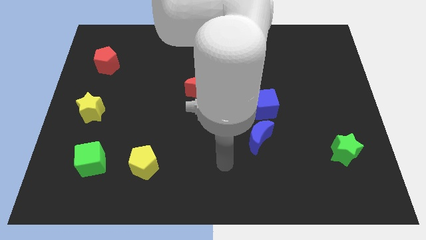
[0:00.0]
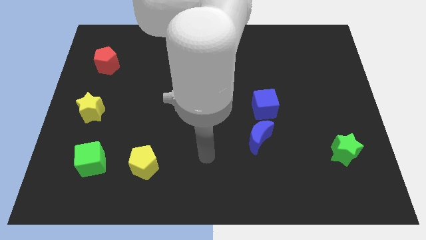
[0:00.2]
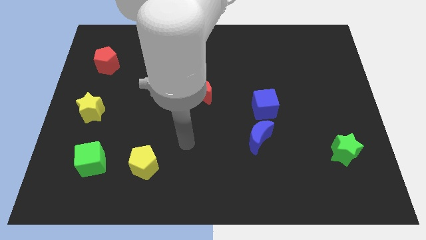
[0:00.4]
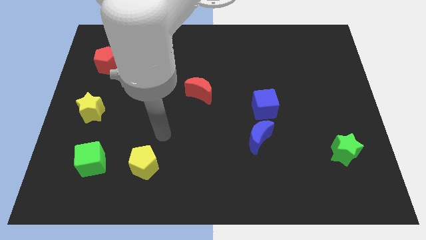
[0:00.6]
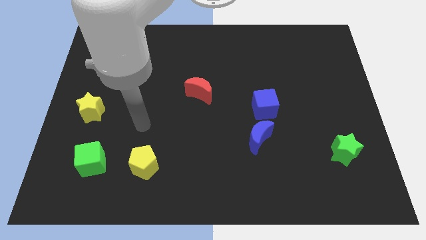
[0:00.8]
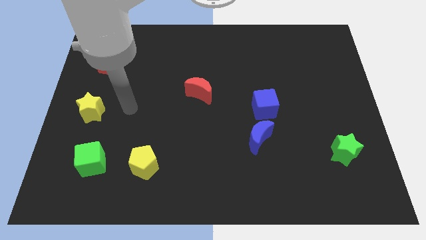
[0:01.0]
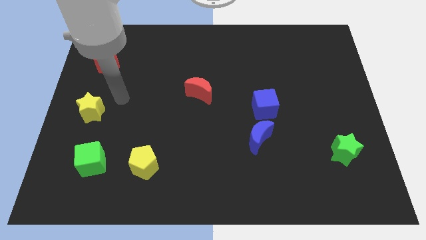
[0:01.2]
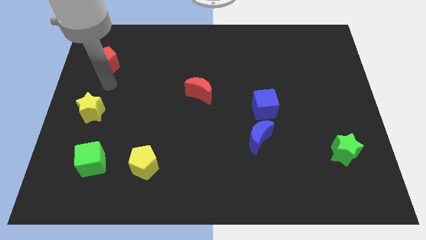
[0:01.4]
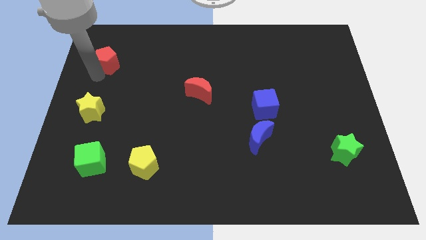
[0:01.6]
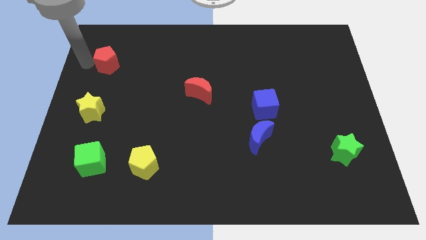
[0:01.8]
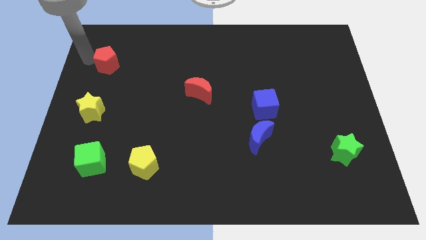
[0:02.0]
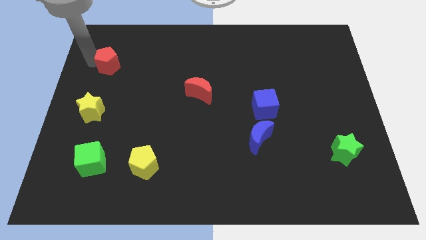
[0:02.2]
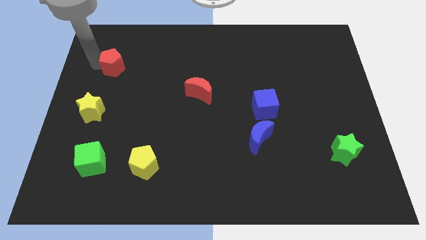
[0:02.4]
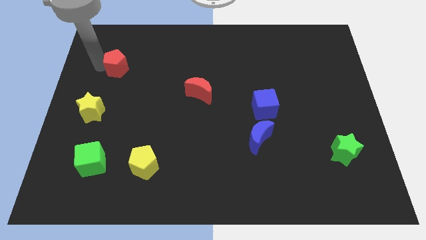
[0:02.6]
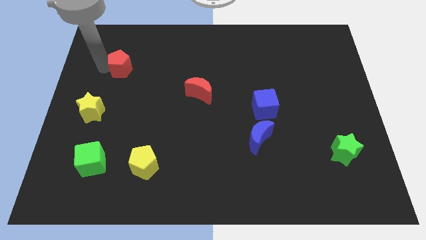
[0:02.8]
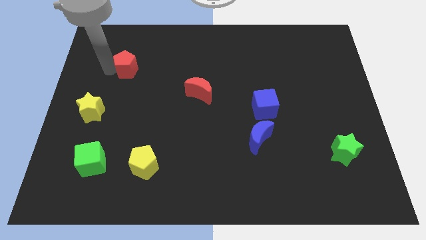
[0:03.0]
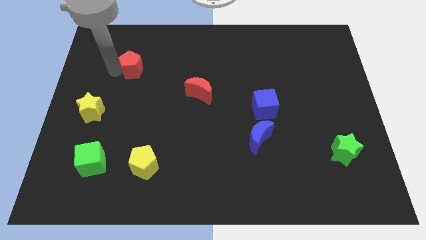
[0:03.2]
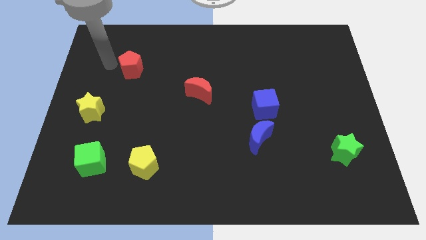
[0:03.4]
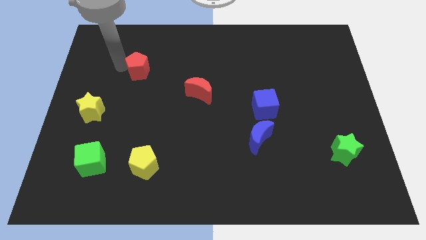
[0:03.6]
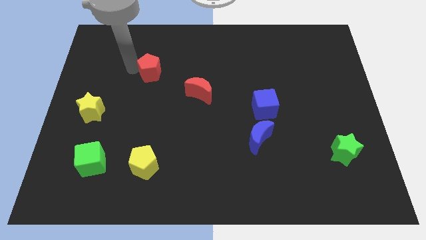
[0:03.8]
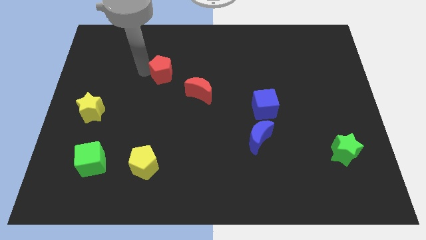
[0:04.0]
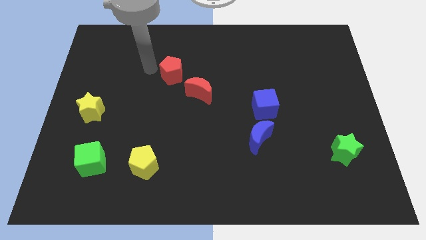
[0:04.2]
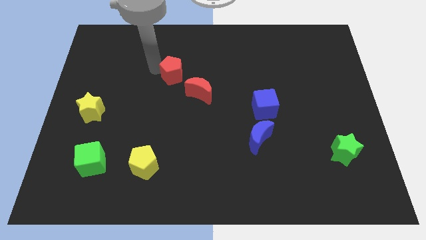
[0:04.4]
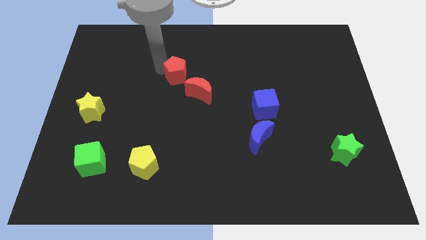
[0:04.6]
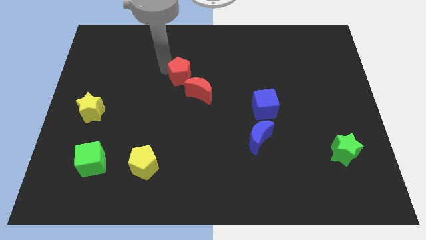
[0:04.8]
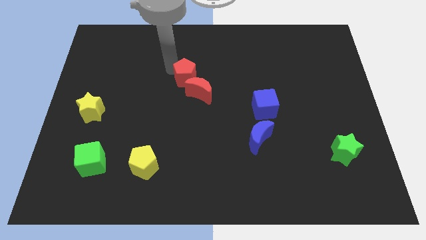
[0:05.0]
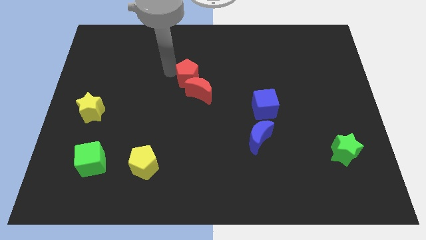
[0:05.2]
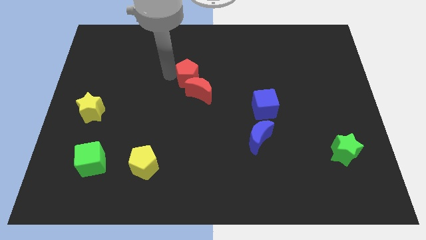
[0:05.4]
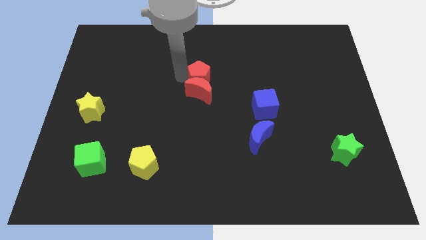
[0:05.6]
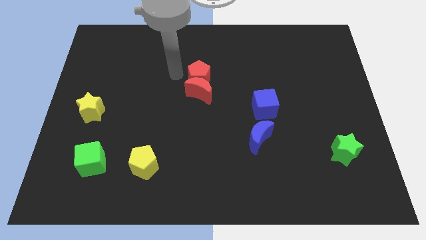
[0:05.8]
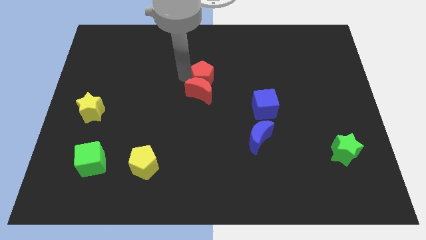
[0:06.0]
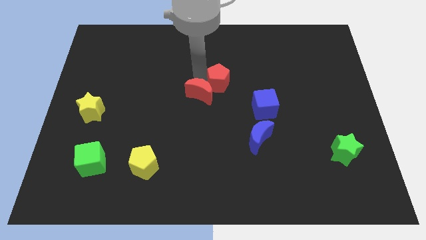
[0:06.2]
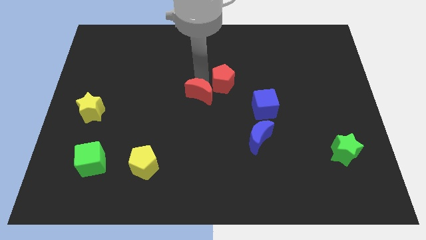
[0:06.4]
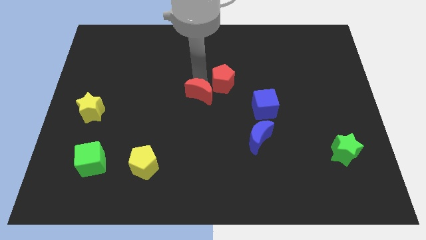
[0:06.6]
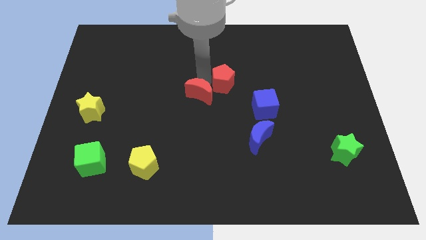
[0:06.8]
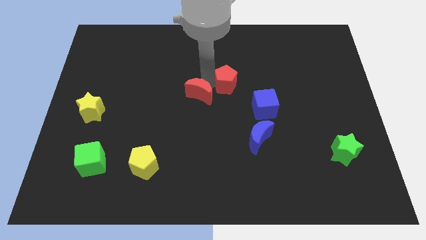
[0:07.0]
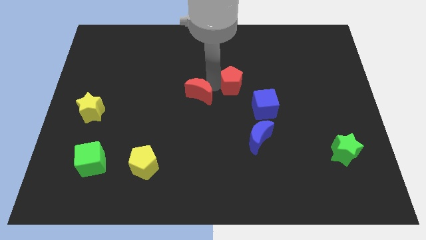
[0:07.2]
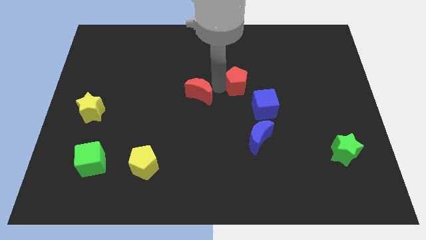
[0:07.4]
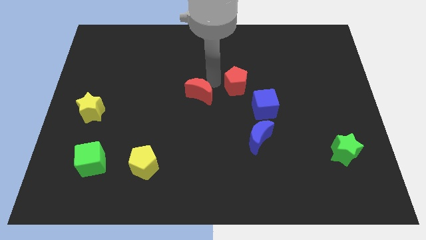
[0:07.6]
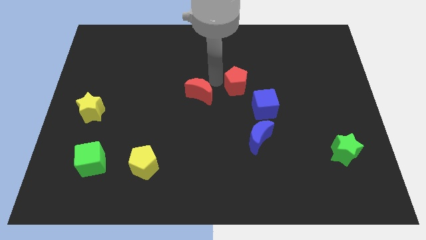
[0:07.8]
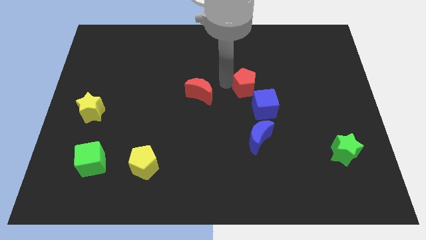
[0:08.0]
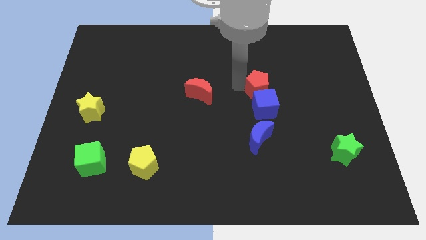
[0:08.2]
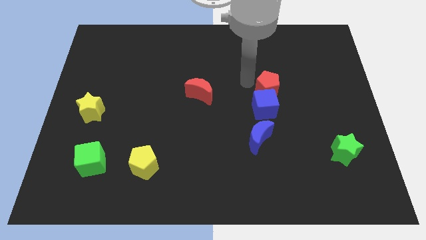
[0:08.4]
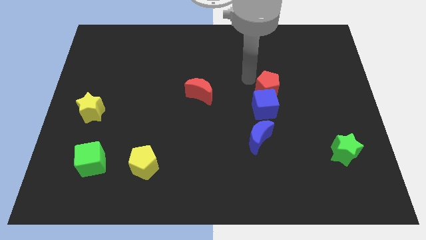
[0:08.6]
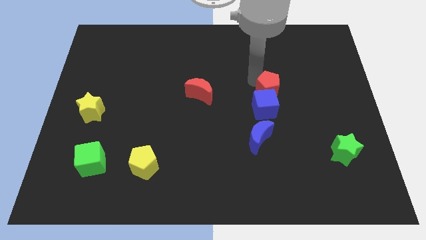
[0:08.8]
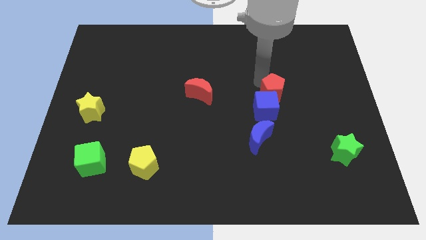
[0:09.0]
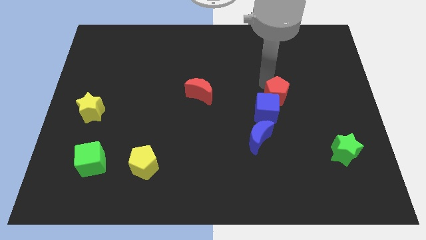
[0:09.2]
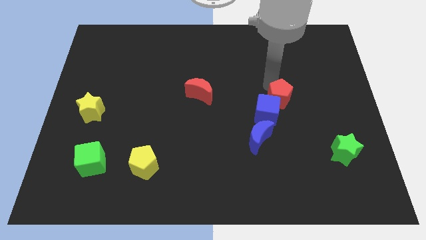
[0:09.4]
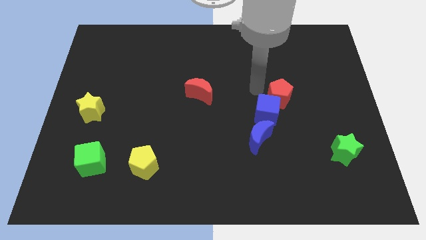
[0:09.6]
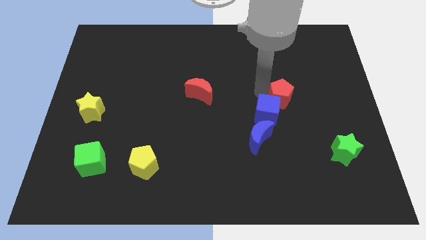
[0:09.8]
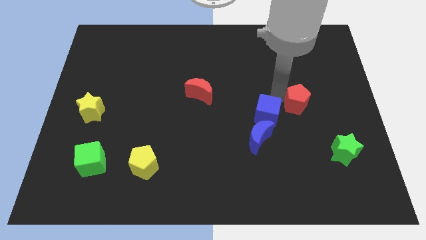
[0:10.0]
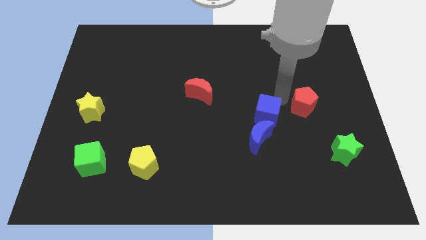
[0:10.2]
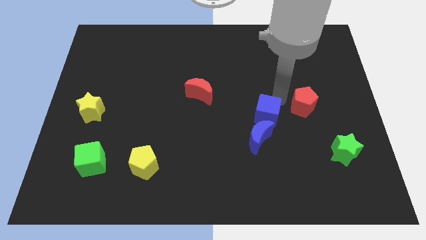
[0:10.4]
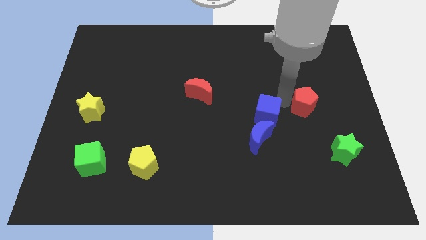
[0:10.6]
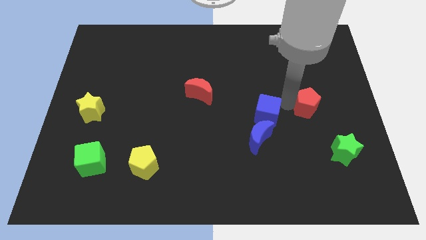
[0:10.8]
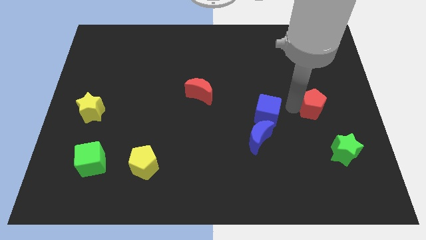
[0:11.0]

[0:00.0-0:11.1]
push the red pentagon above the green star

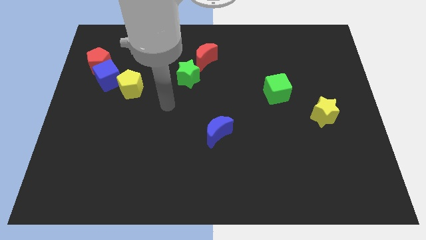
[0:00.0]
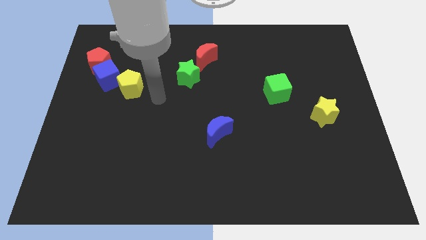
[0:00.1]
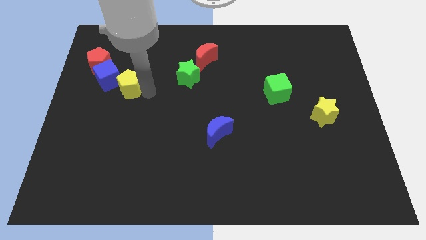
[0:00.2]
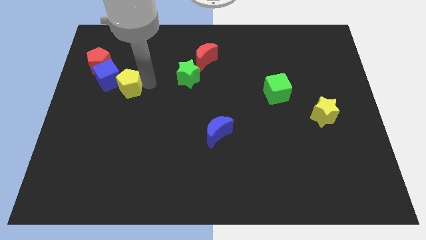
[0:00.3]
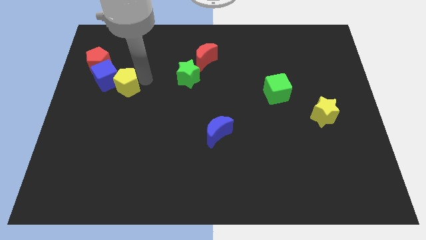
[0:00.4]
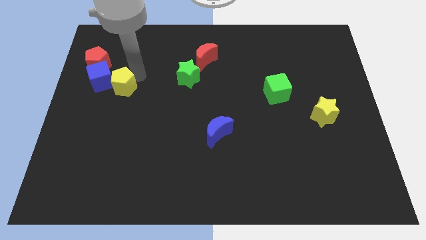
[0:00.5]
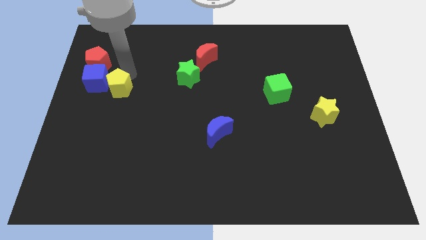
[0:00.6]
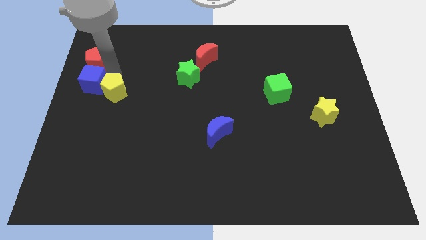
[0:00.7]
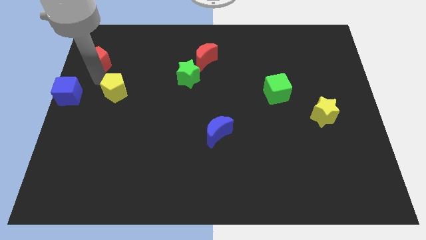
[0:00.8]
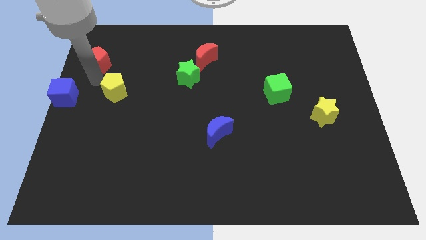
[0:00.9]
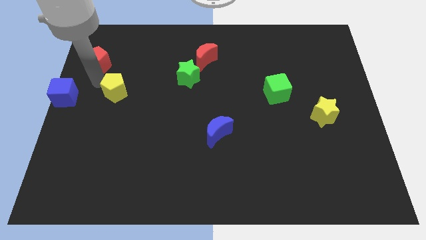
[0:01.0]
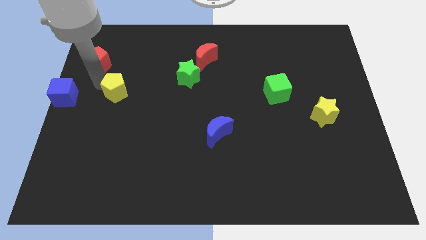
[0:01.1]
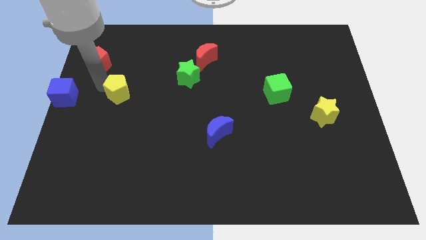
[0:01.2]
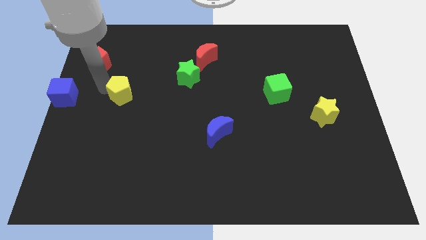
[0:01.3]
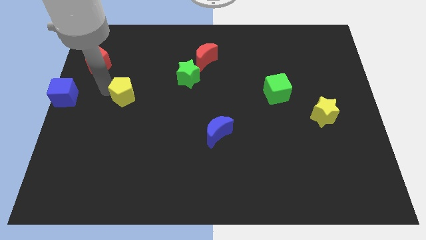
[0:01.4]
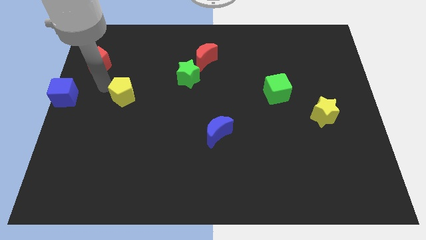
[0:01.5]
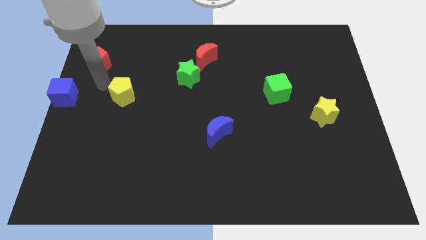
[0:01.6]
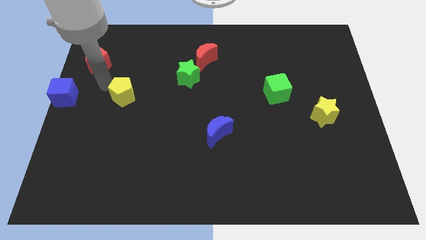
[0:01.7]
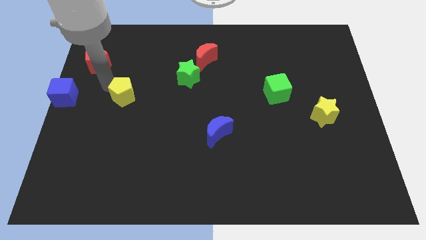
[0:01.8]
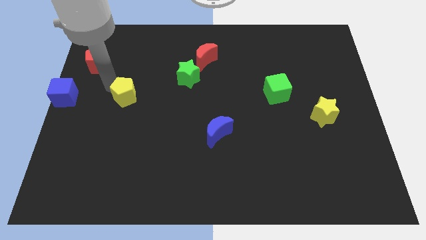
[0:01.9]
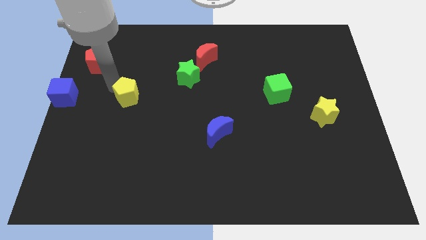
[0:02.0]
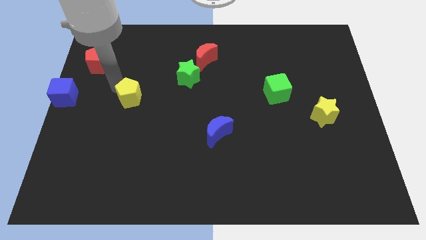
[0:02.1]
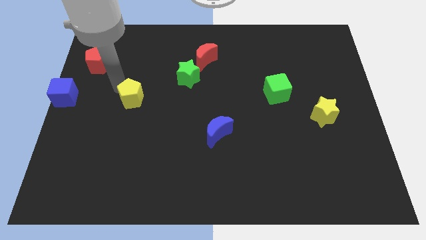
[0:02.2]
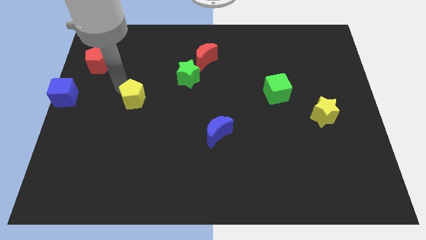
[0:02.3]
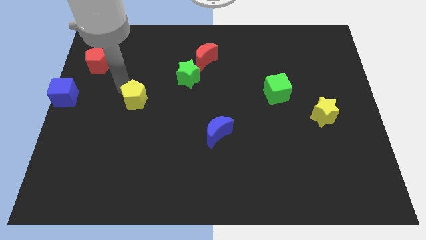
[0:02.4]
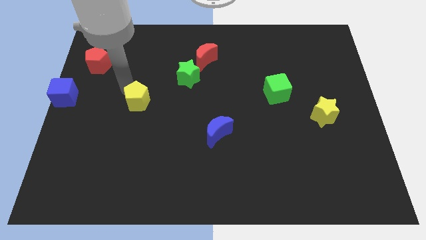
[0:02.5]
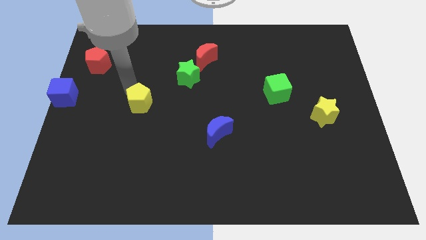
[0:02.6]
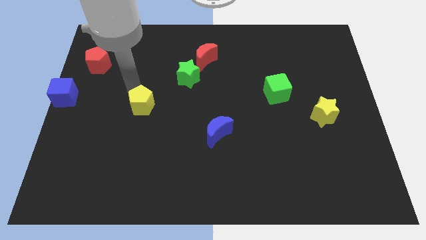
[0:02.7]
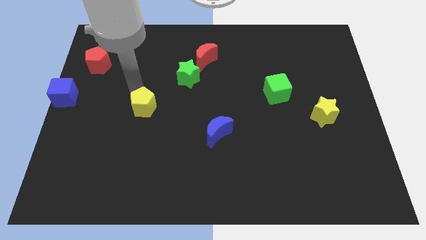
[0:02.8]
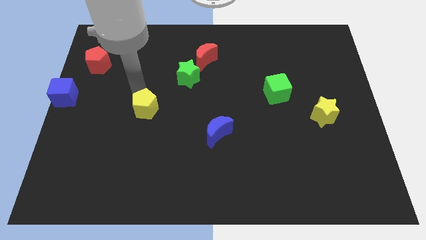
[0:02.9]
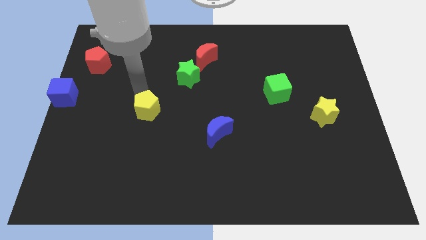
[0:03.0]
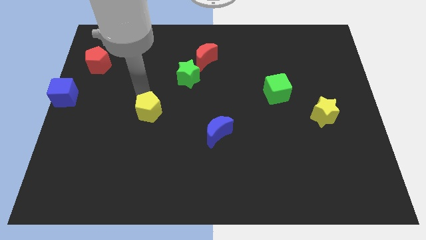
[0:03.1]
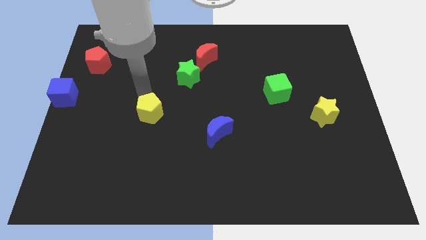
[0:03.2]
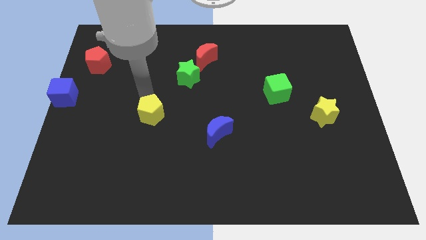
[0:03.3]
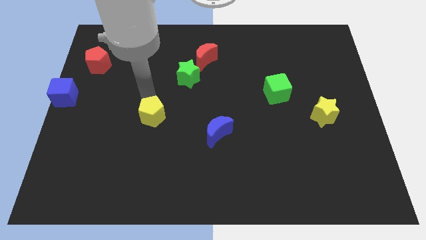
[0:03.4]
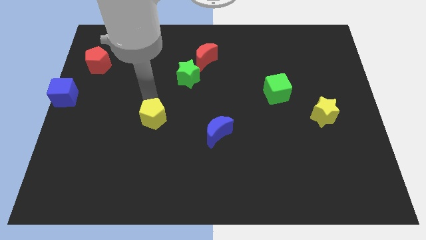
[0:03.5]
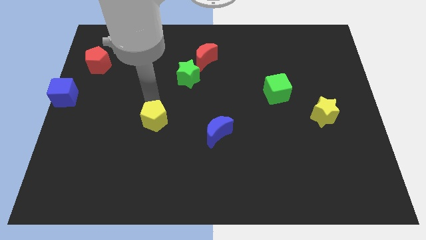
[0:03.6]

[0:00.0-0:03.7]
put the yellow pentagon to the left of the blue moon
